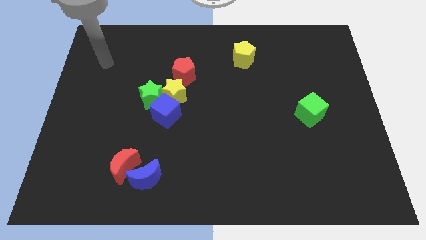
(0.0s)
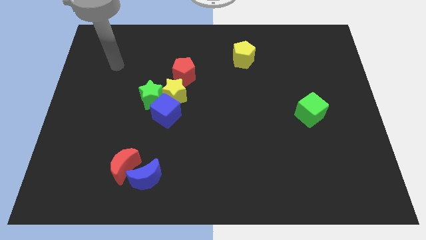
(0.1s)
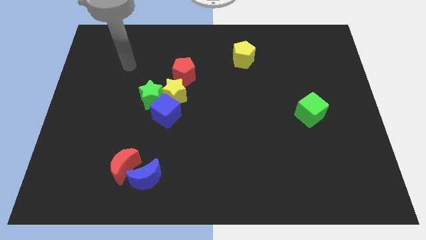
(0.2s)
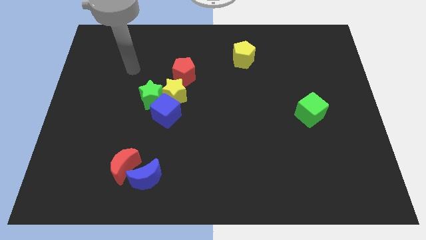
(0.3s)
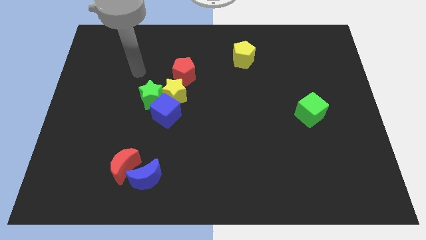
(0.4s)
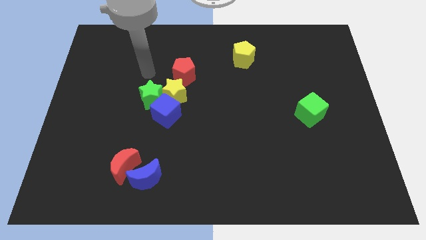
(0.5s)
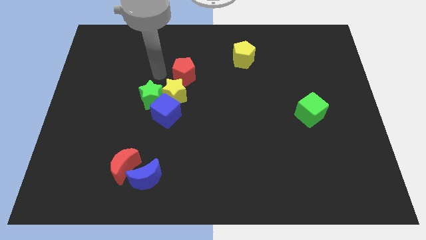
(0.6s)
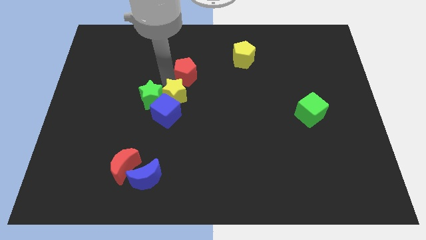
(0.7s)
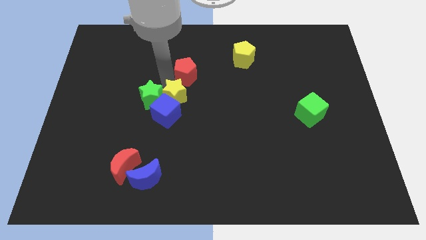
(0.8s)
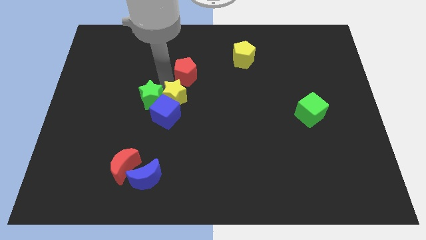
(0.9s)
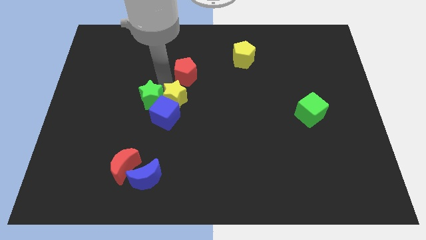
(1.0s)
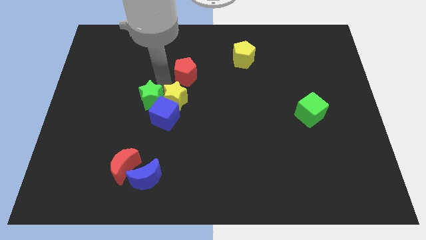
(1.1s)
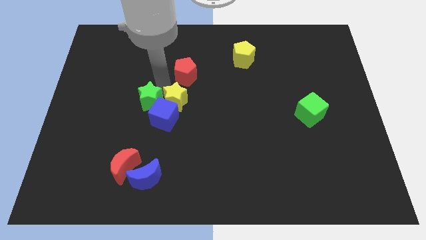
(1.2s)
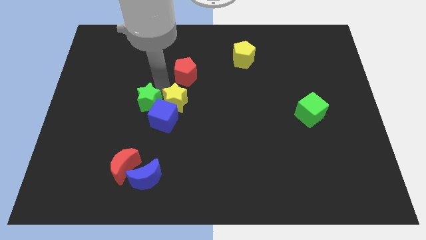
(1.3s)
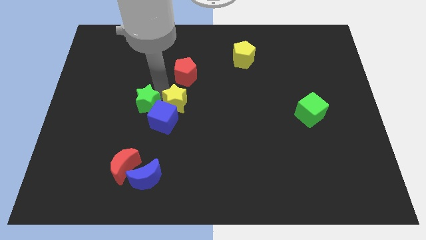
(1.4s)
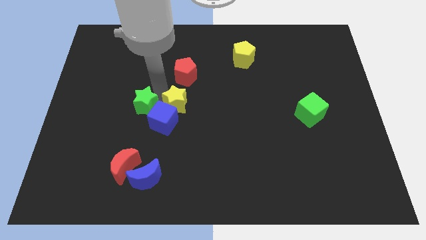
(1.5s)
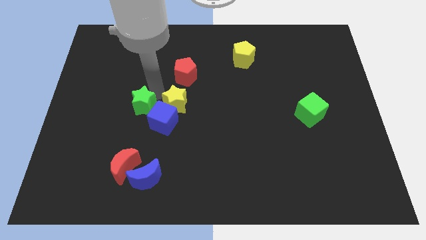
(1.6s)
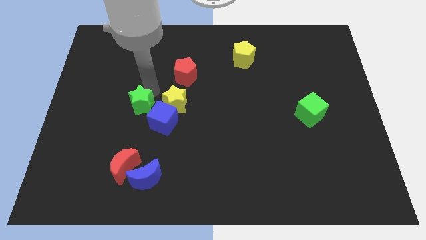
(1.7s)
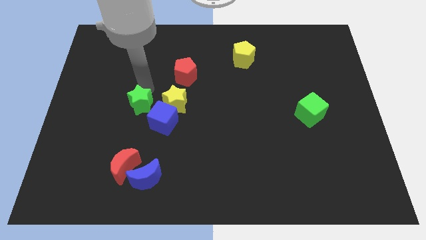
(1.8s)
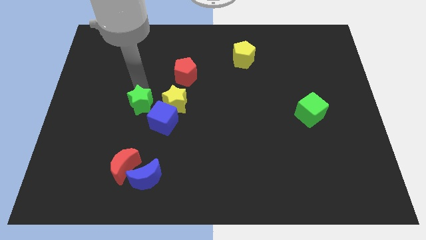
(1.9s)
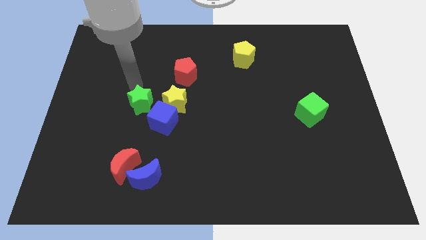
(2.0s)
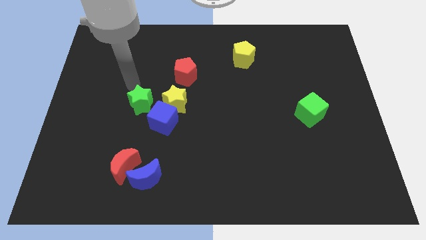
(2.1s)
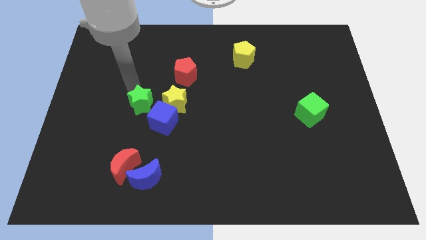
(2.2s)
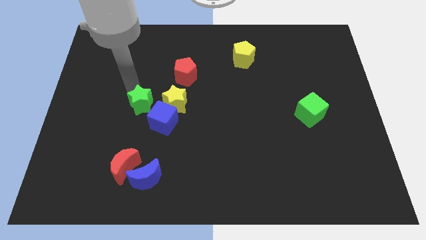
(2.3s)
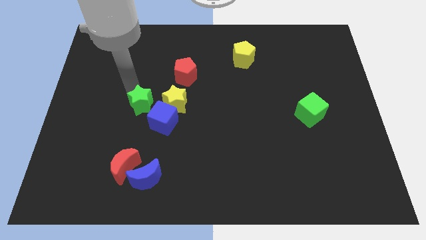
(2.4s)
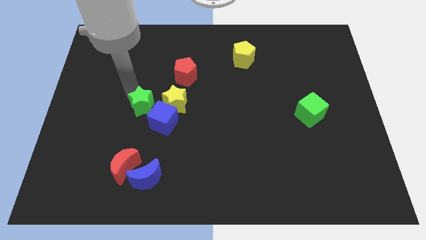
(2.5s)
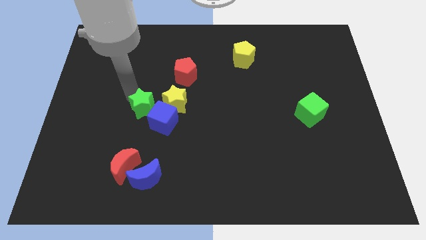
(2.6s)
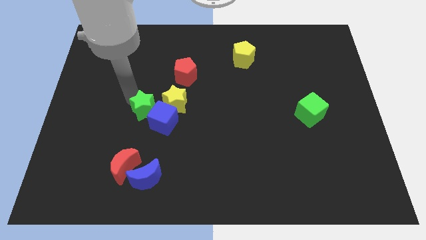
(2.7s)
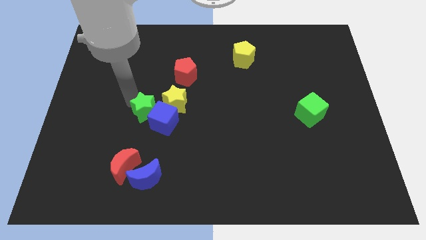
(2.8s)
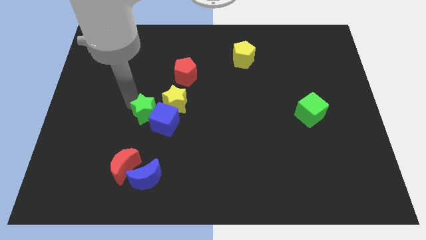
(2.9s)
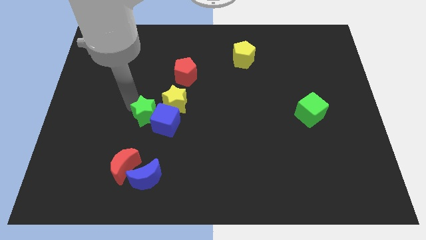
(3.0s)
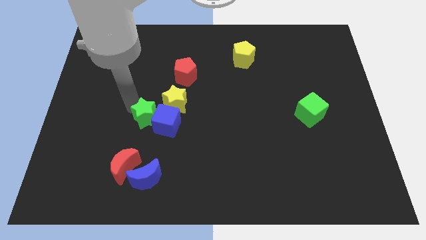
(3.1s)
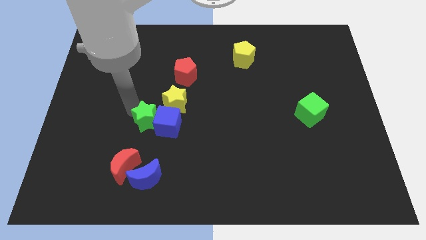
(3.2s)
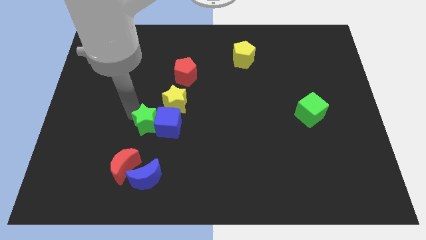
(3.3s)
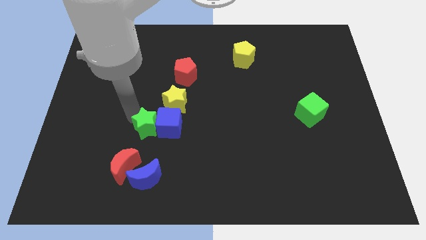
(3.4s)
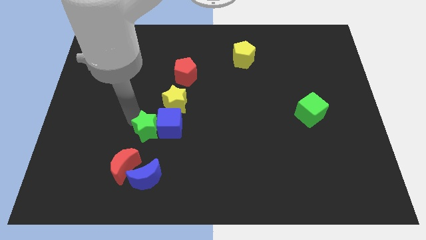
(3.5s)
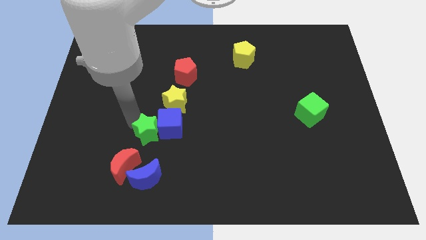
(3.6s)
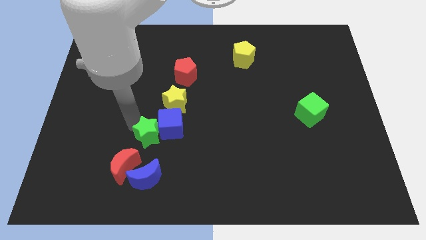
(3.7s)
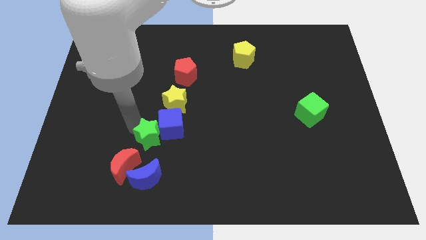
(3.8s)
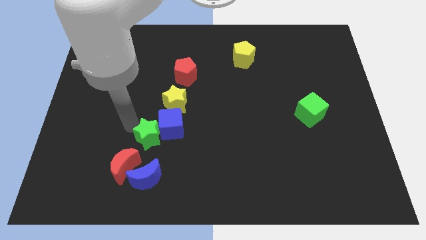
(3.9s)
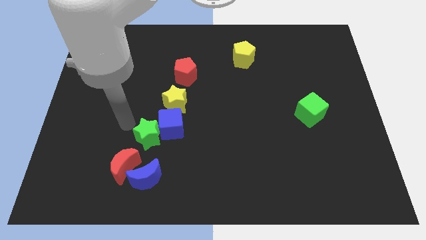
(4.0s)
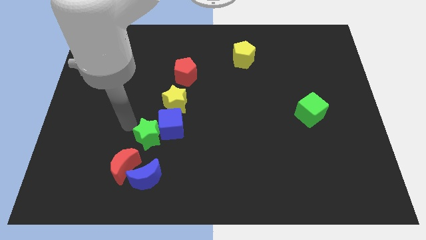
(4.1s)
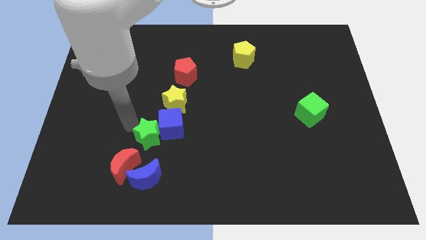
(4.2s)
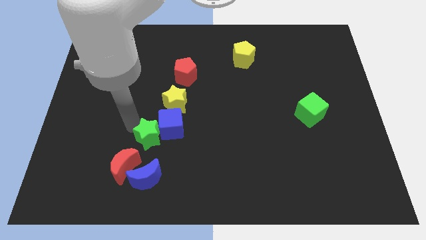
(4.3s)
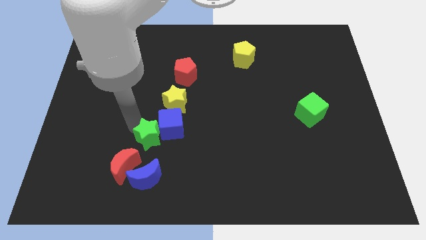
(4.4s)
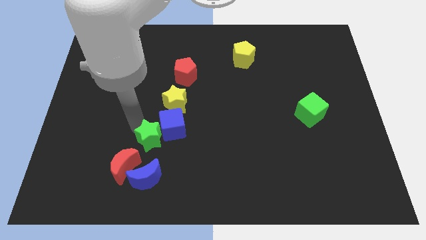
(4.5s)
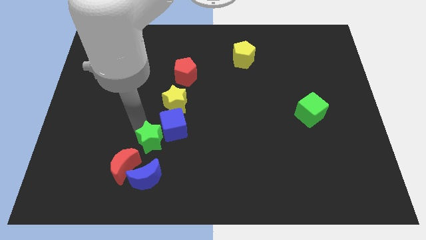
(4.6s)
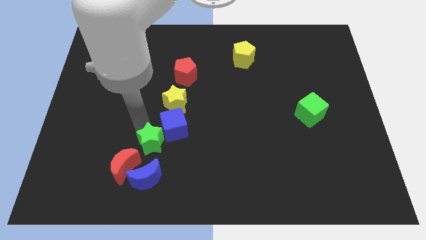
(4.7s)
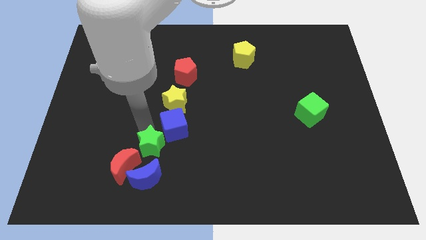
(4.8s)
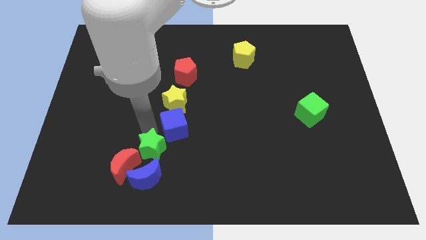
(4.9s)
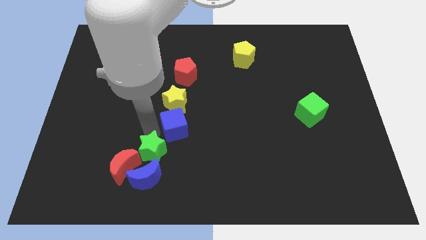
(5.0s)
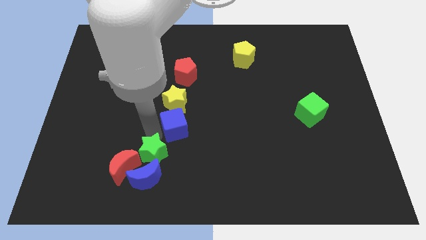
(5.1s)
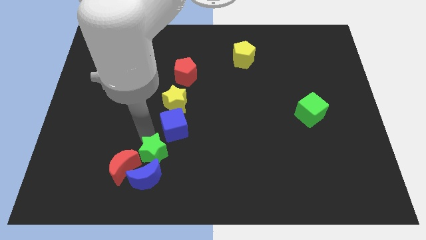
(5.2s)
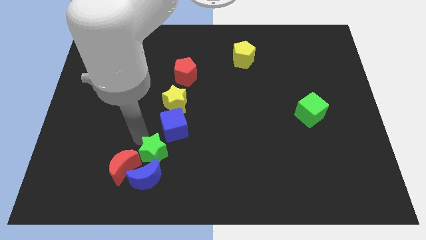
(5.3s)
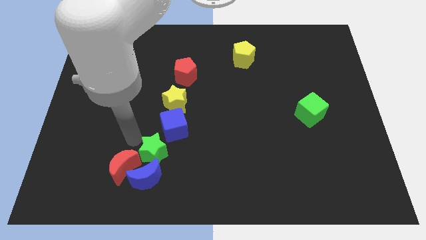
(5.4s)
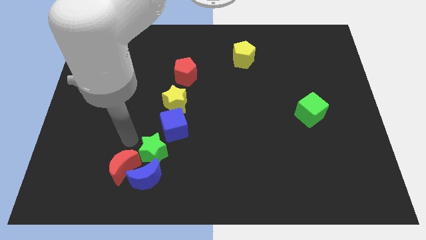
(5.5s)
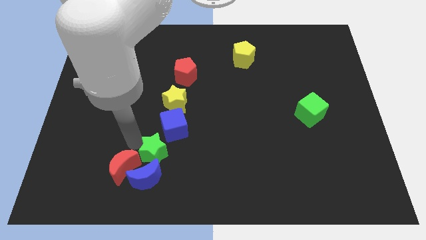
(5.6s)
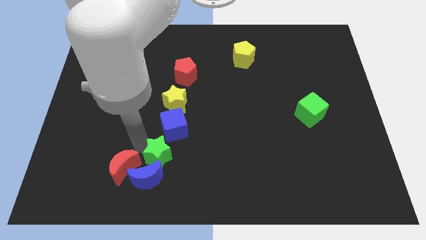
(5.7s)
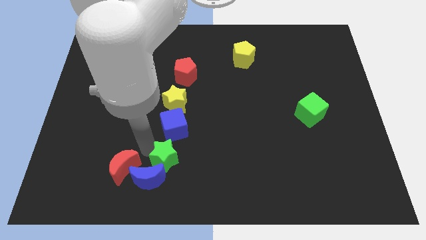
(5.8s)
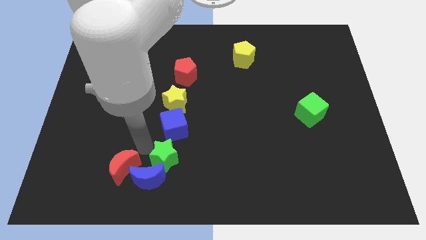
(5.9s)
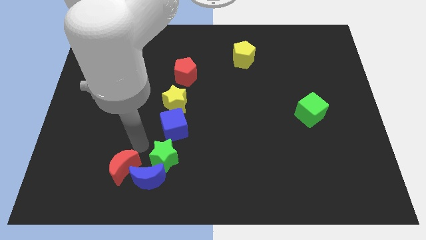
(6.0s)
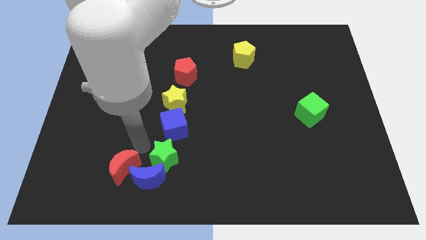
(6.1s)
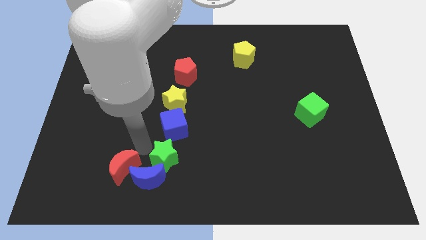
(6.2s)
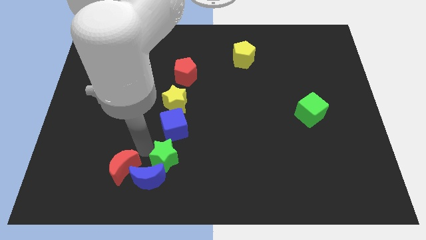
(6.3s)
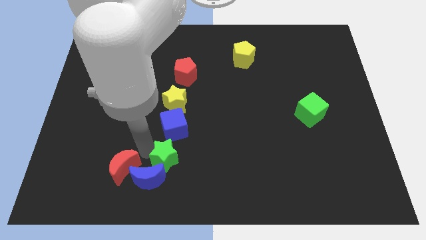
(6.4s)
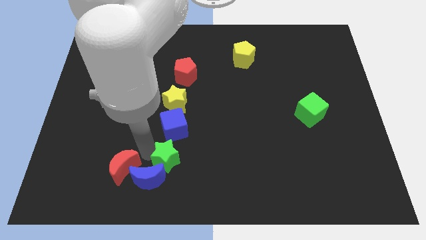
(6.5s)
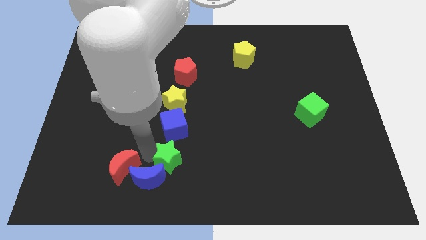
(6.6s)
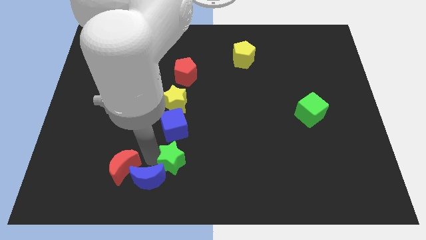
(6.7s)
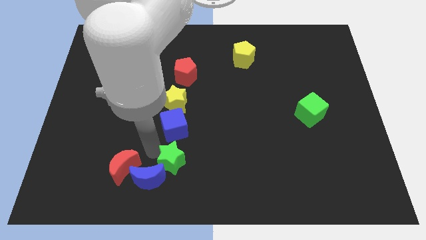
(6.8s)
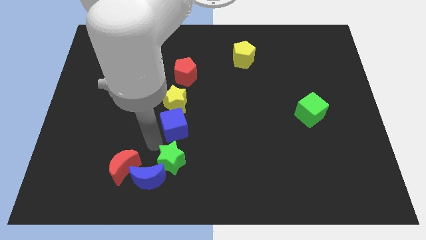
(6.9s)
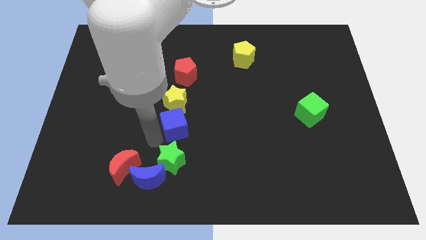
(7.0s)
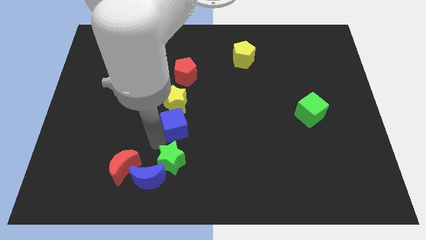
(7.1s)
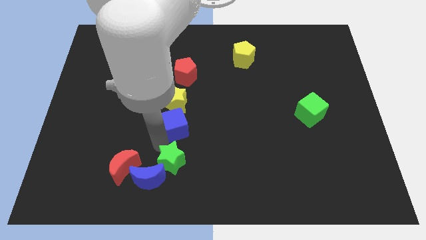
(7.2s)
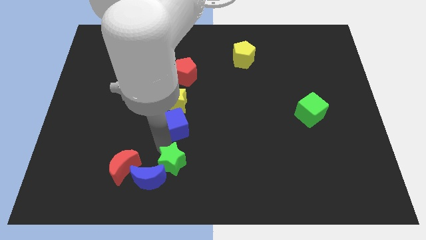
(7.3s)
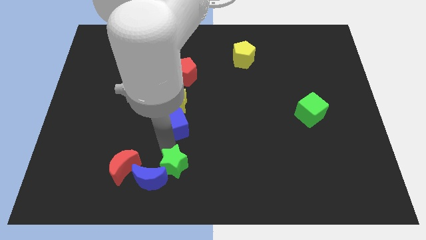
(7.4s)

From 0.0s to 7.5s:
slide the green star to the bottom
